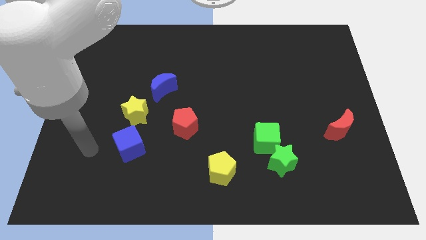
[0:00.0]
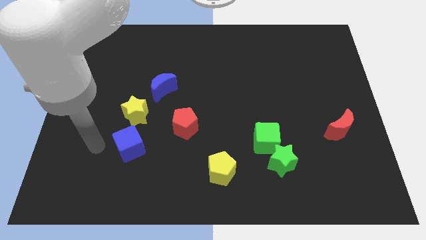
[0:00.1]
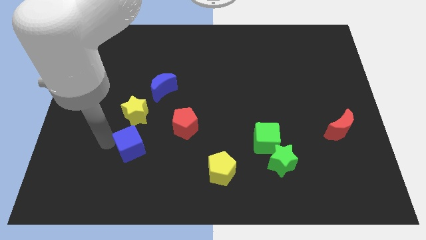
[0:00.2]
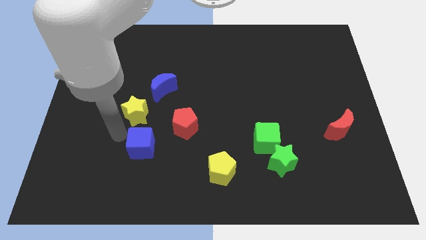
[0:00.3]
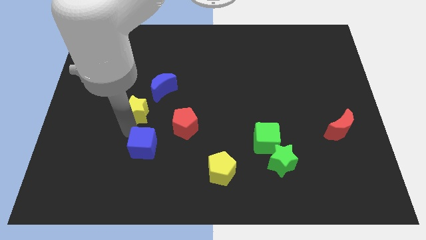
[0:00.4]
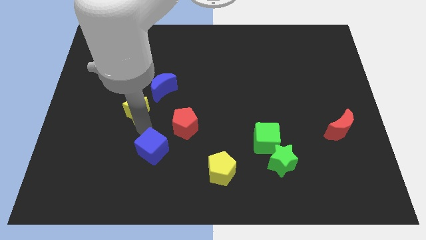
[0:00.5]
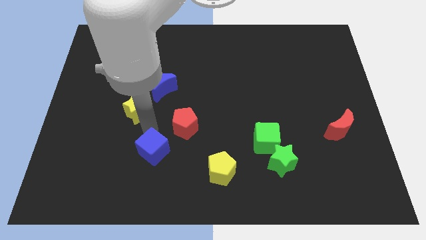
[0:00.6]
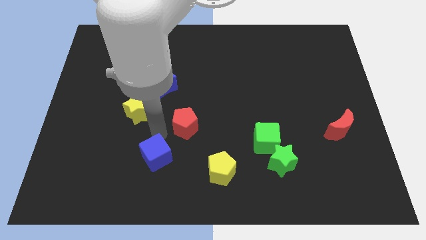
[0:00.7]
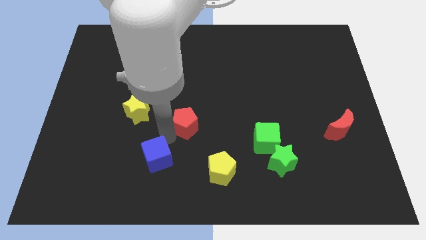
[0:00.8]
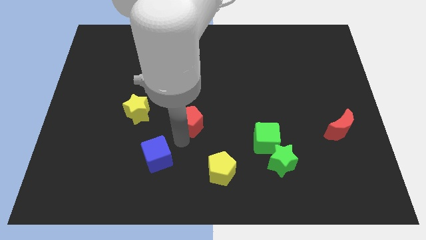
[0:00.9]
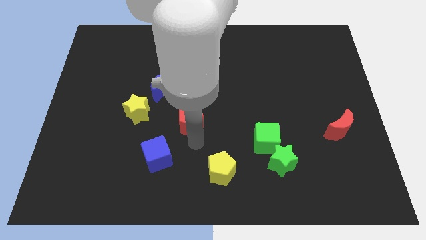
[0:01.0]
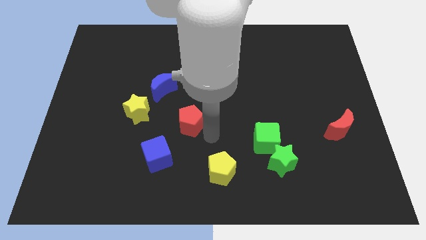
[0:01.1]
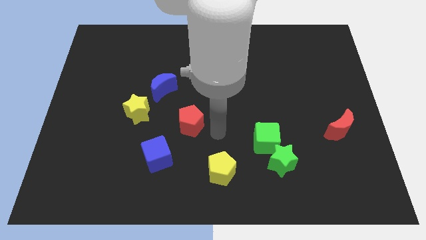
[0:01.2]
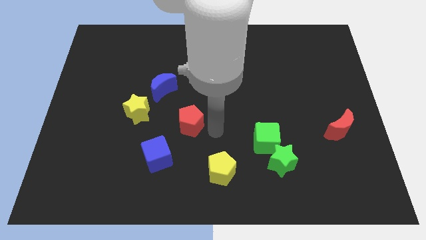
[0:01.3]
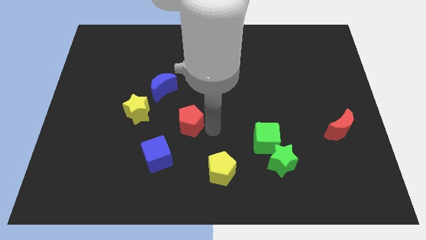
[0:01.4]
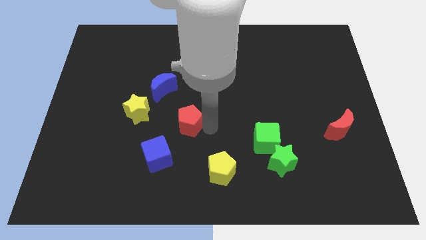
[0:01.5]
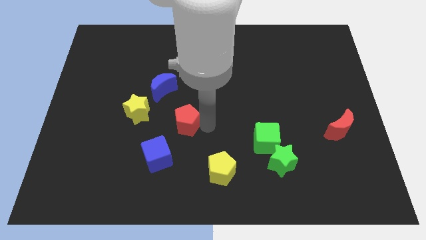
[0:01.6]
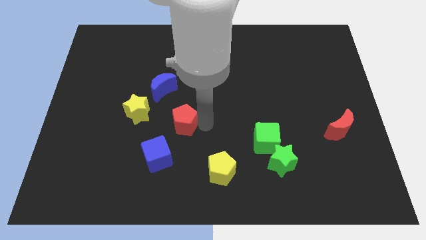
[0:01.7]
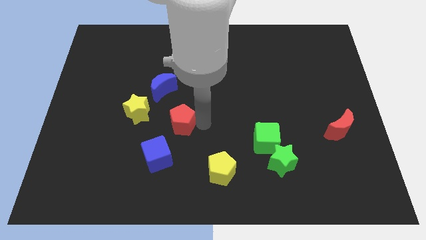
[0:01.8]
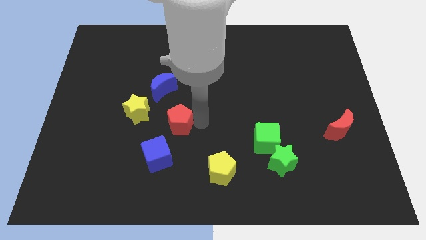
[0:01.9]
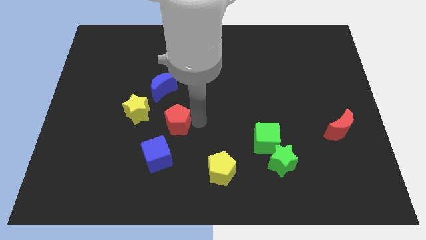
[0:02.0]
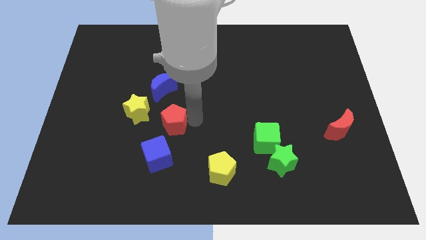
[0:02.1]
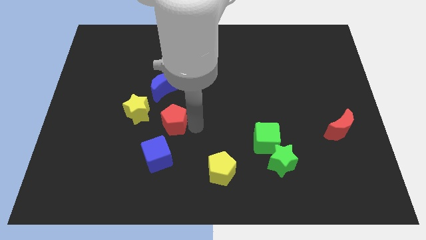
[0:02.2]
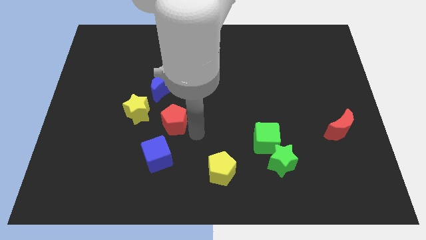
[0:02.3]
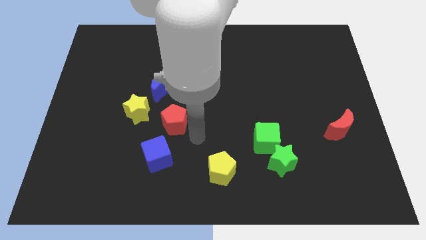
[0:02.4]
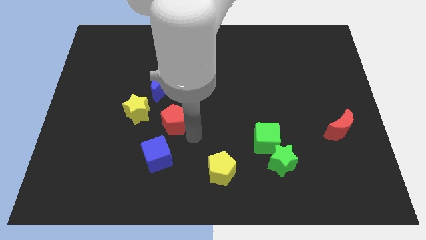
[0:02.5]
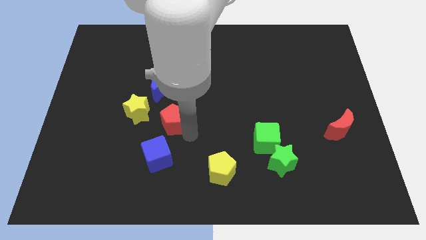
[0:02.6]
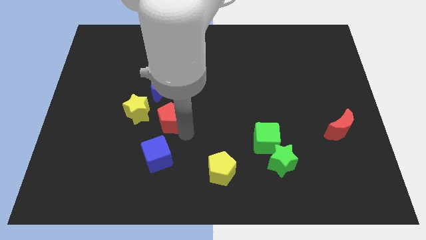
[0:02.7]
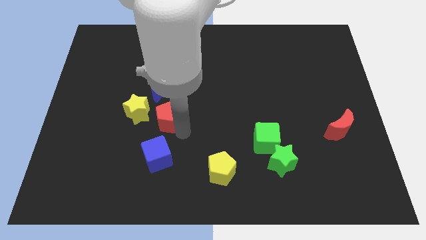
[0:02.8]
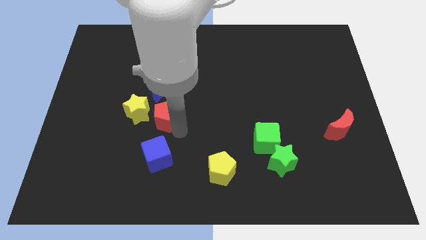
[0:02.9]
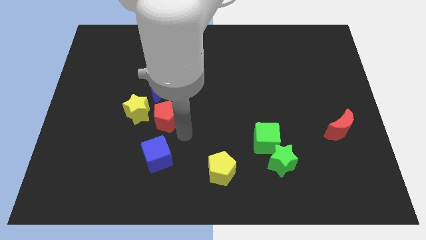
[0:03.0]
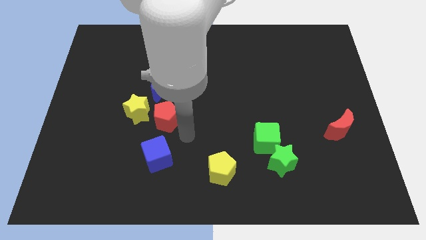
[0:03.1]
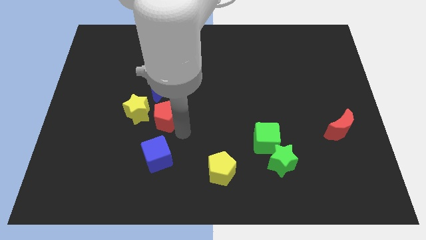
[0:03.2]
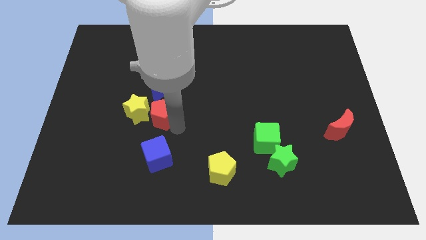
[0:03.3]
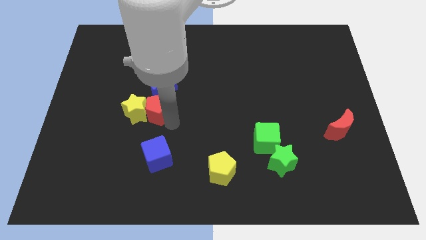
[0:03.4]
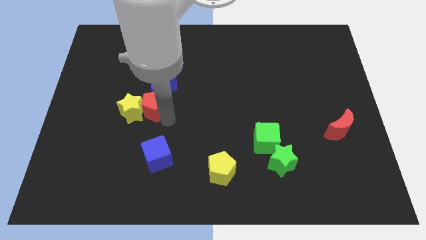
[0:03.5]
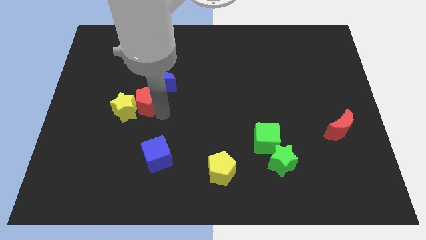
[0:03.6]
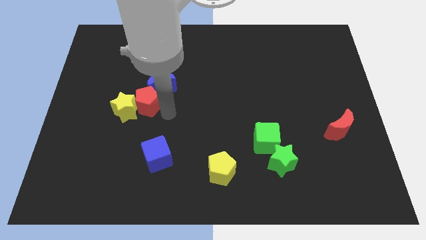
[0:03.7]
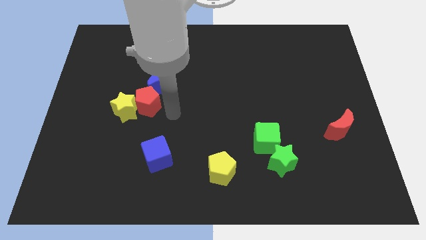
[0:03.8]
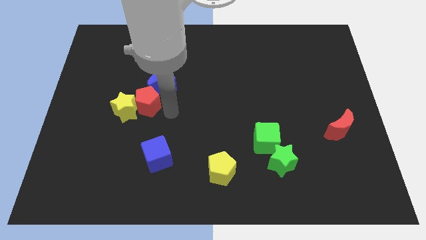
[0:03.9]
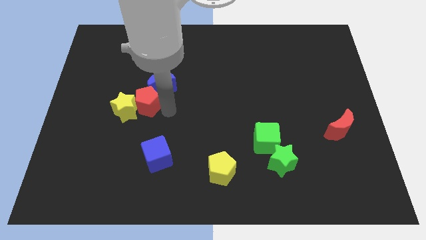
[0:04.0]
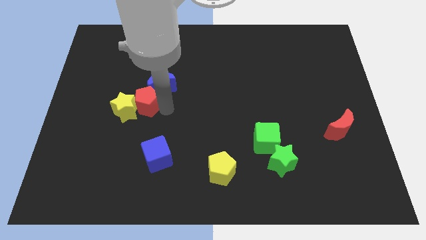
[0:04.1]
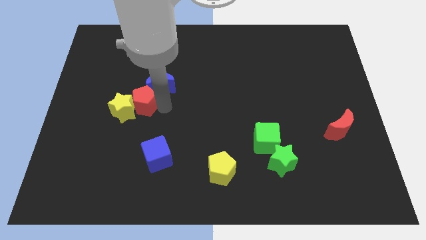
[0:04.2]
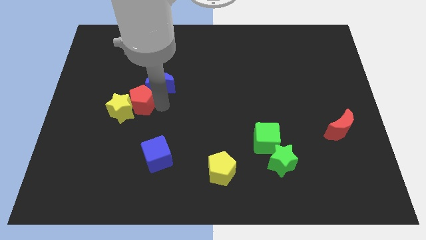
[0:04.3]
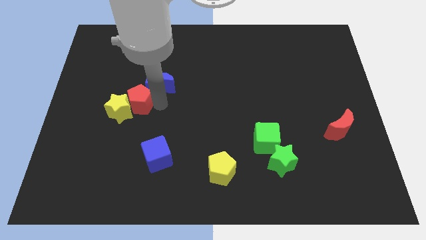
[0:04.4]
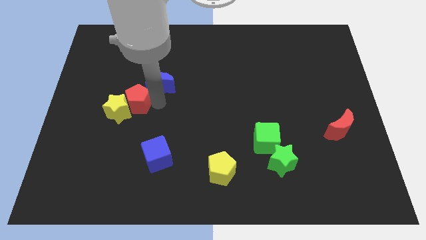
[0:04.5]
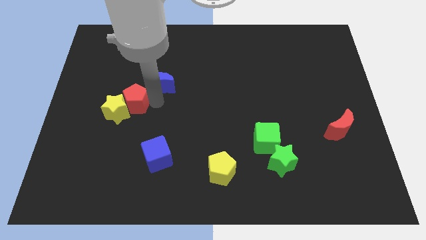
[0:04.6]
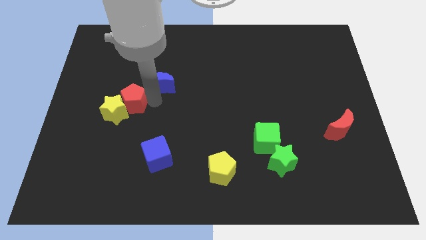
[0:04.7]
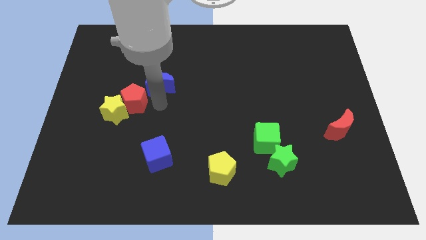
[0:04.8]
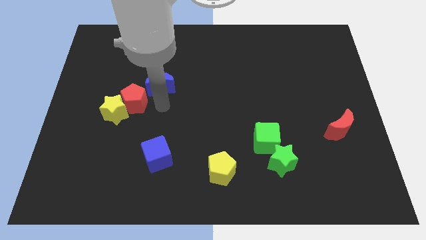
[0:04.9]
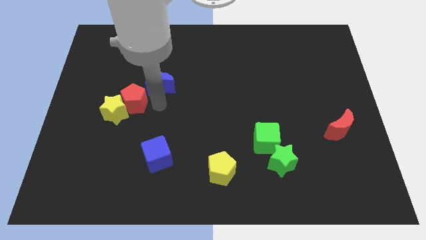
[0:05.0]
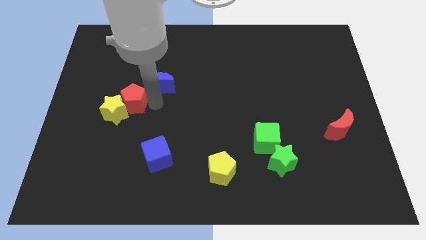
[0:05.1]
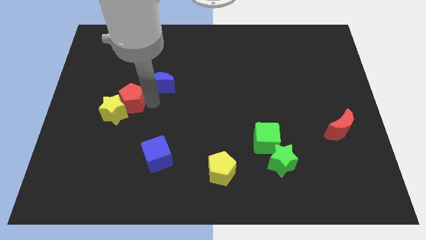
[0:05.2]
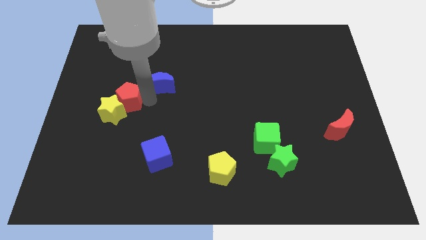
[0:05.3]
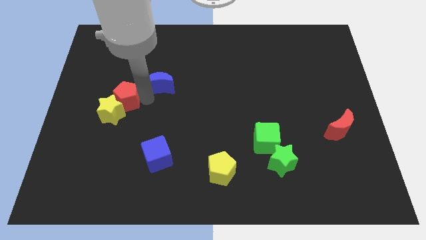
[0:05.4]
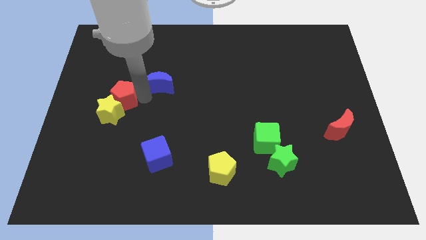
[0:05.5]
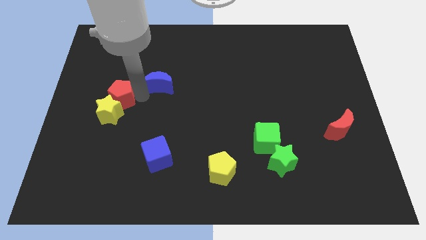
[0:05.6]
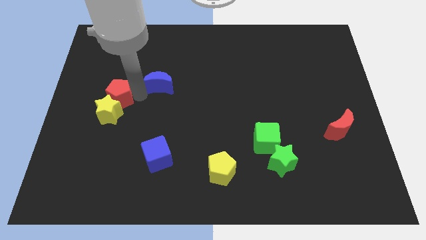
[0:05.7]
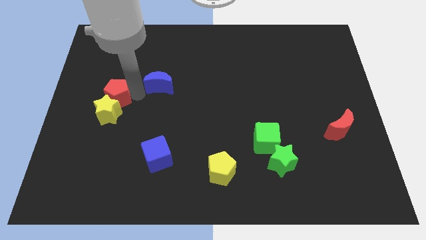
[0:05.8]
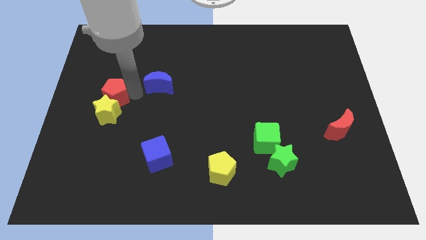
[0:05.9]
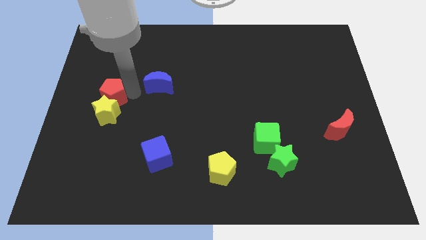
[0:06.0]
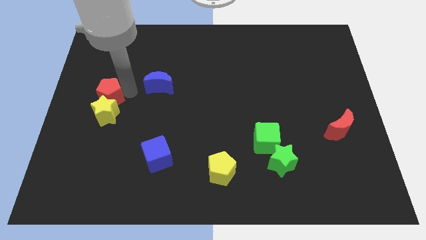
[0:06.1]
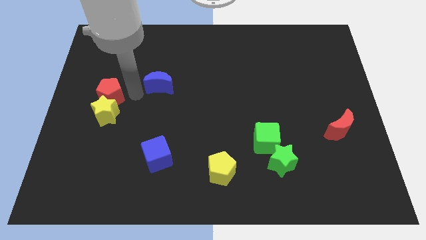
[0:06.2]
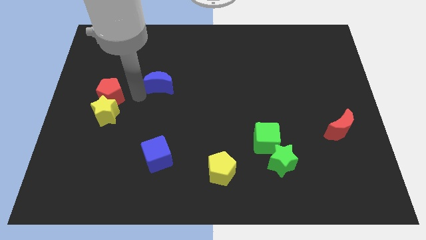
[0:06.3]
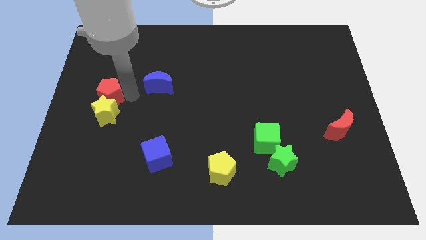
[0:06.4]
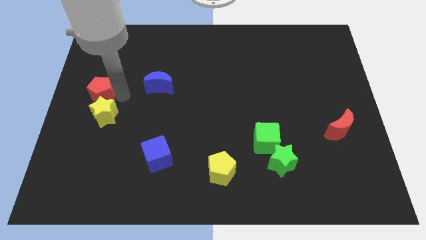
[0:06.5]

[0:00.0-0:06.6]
push the red pentagon to the left side
